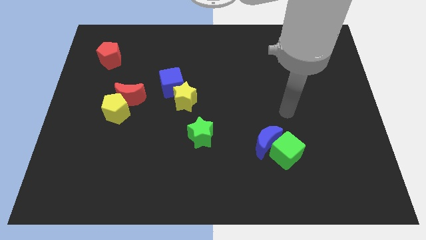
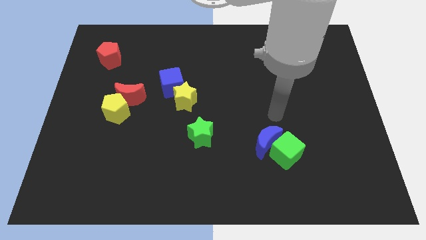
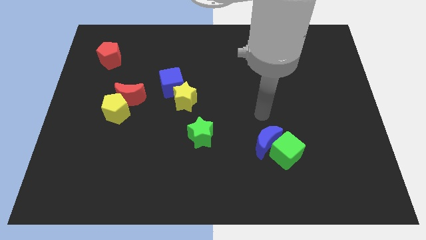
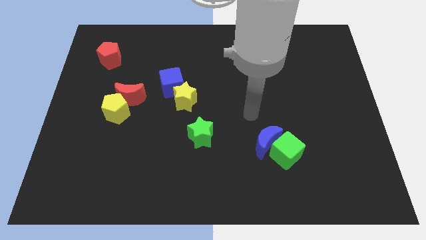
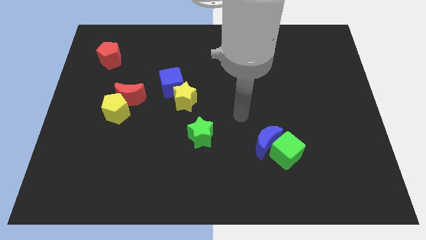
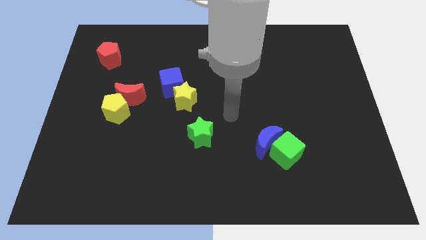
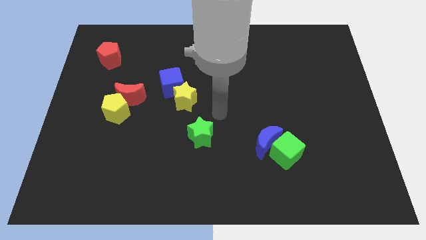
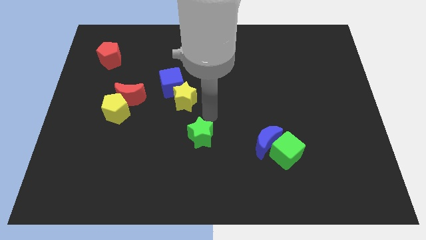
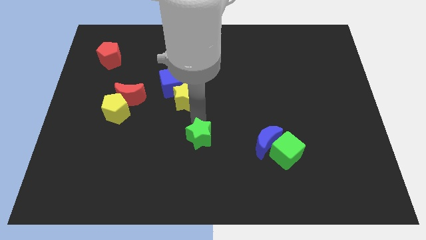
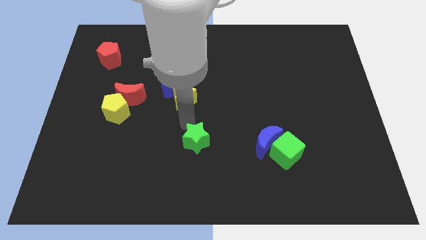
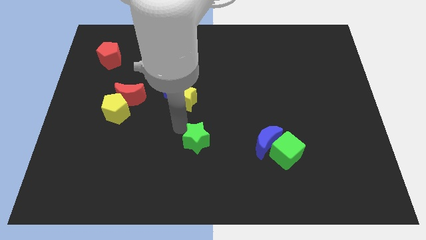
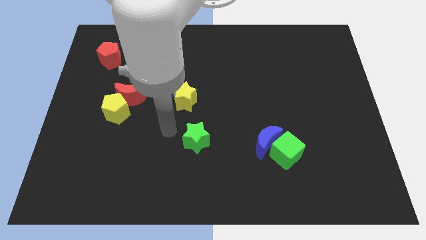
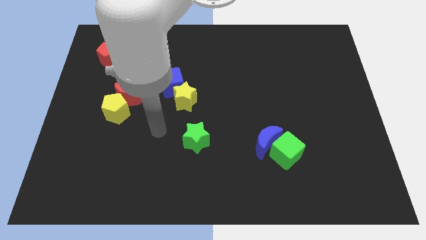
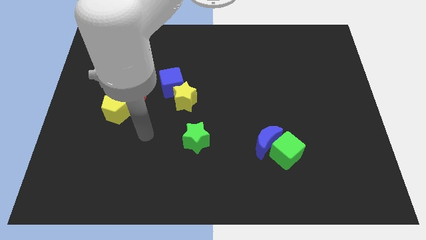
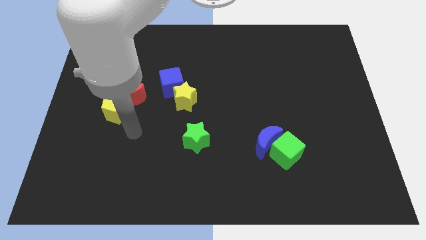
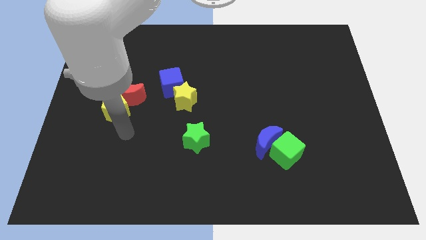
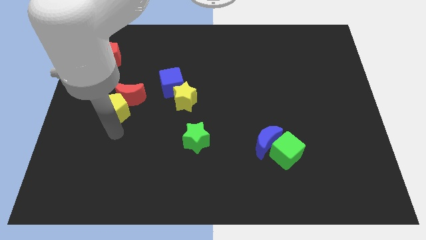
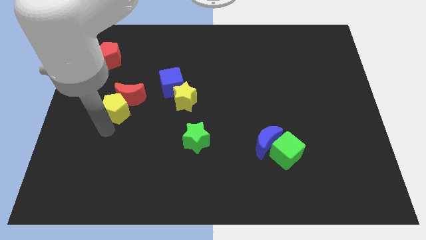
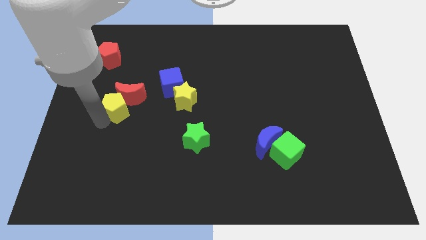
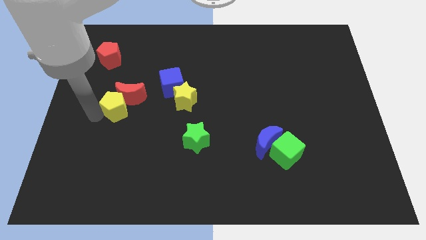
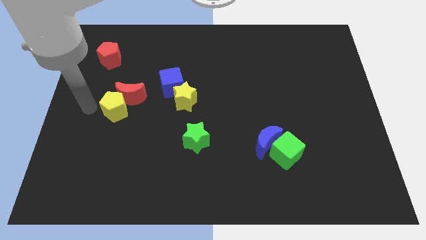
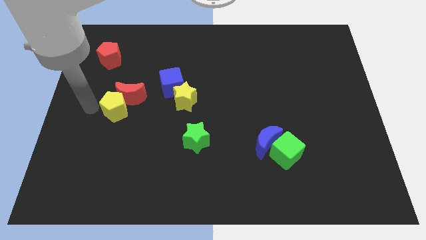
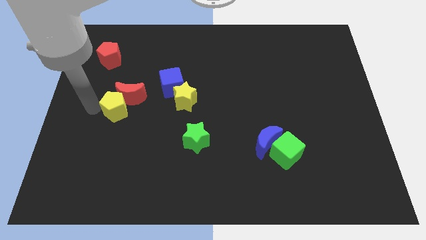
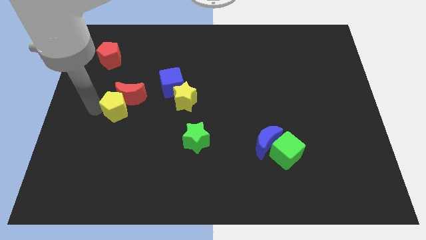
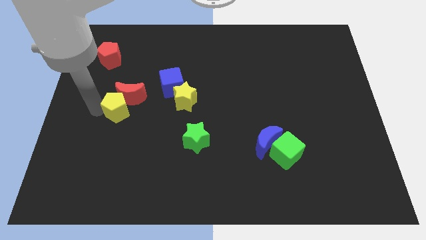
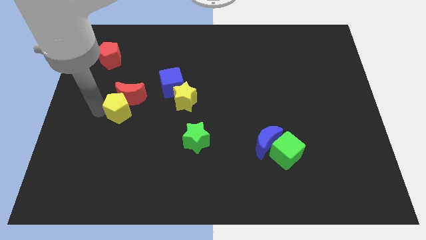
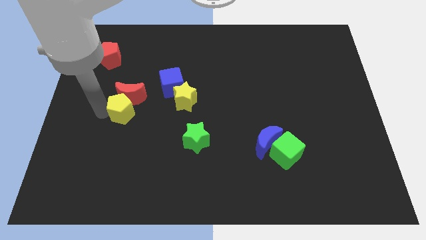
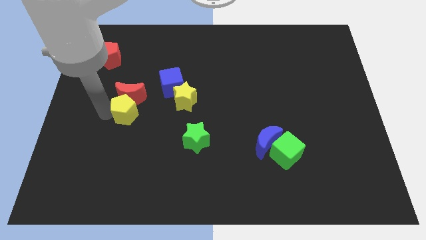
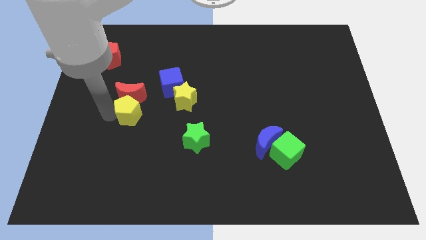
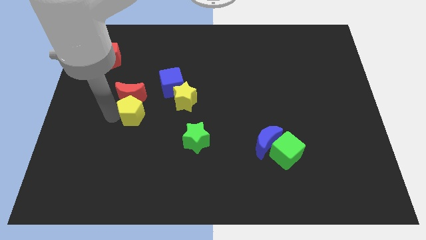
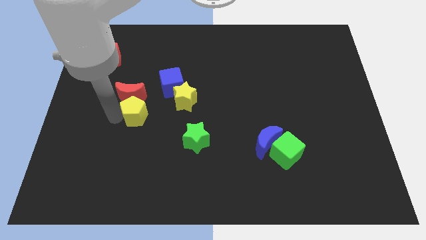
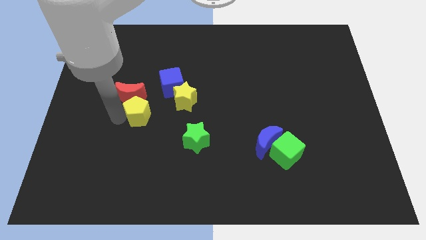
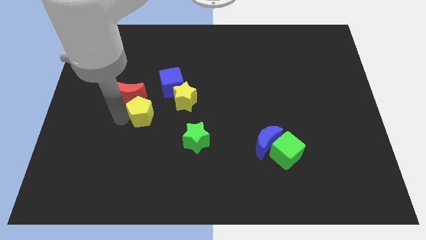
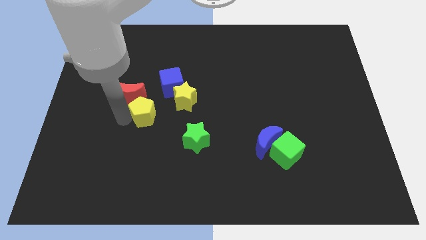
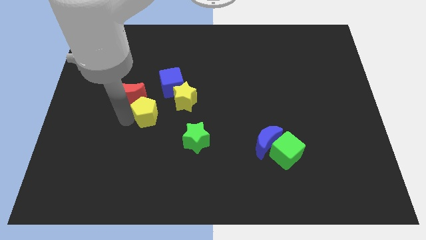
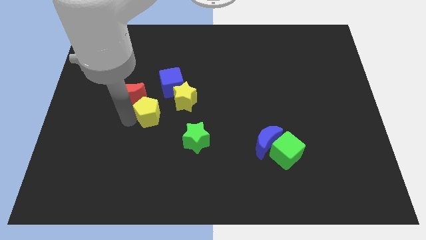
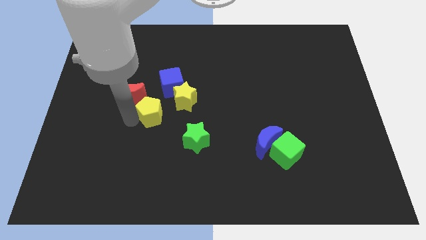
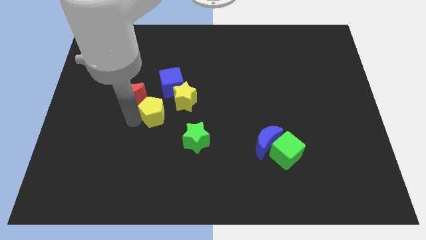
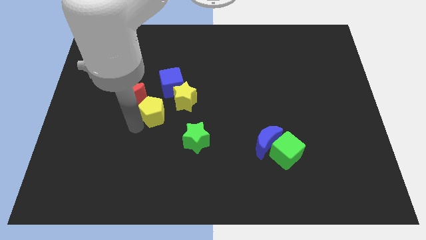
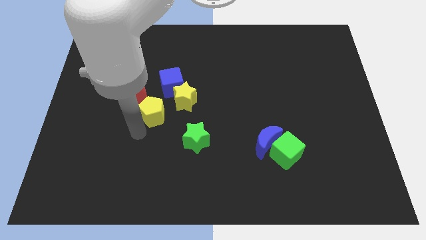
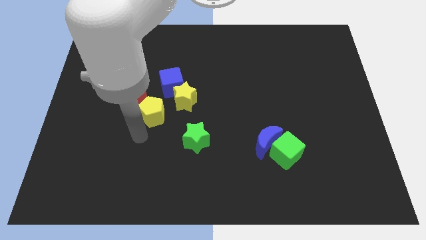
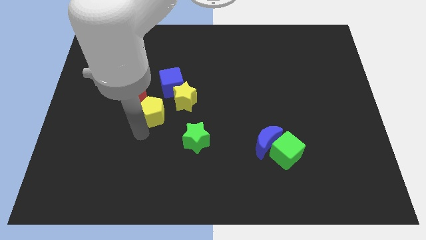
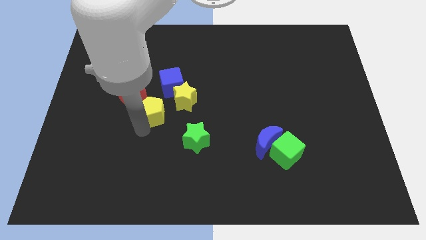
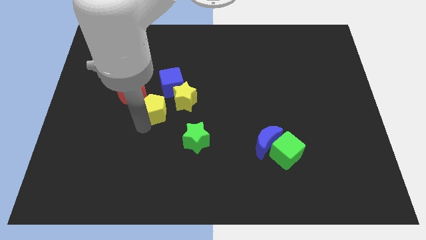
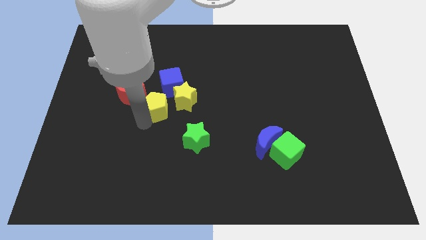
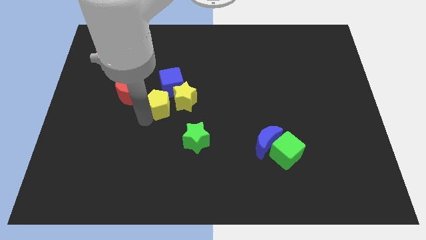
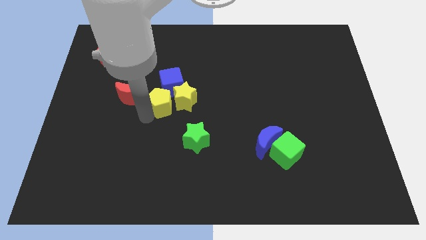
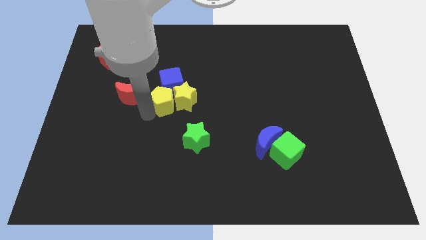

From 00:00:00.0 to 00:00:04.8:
slide the yellow pentagon towards the blue cube

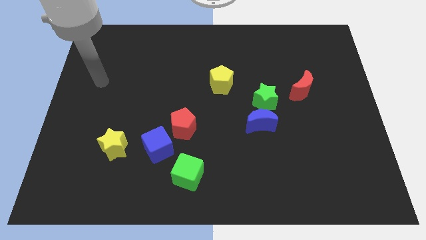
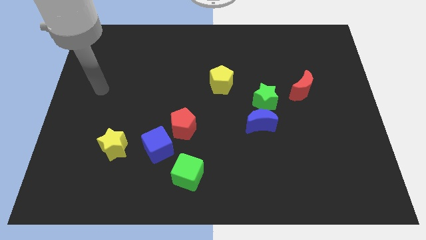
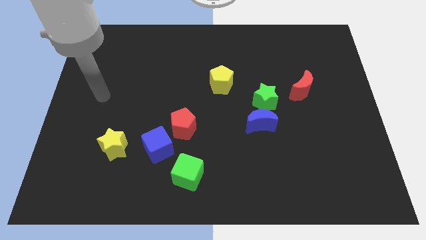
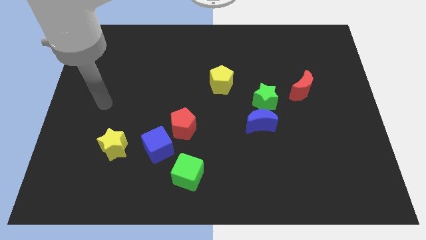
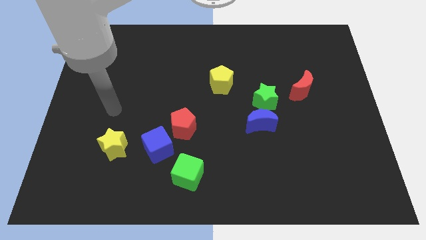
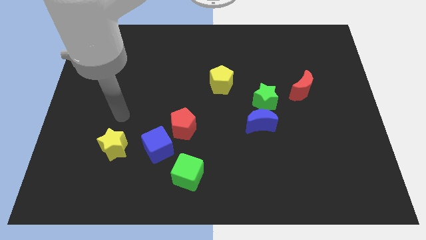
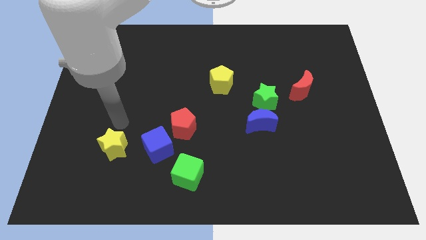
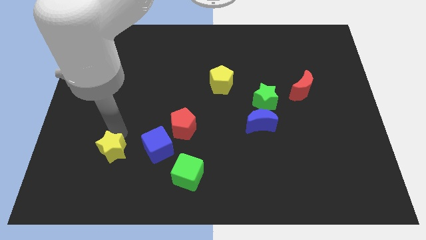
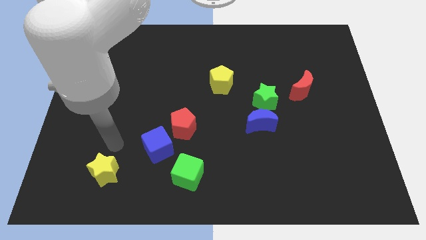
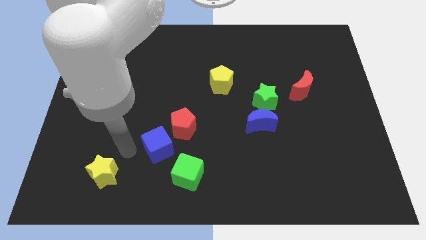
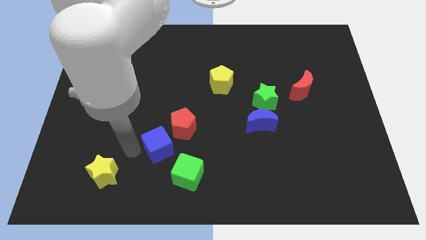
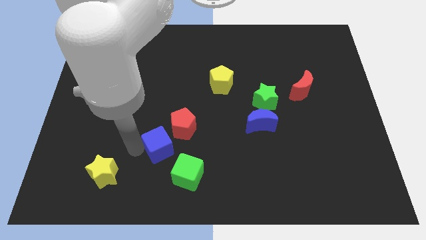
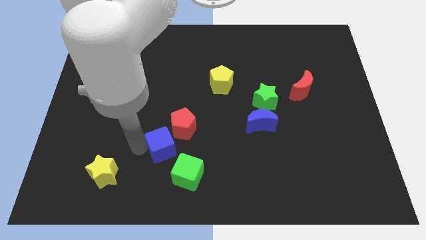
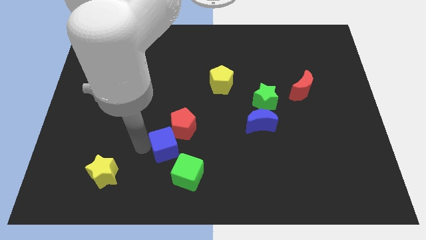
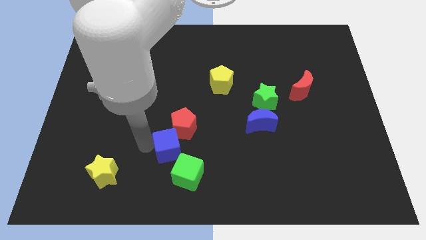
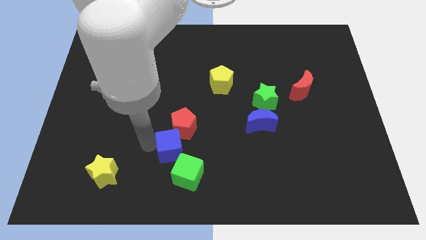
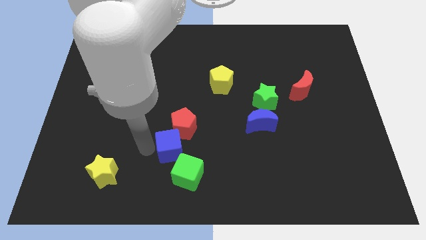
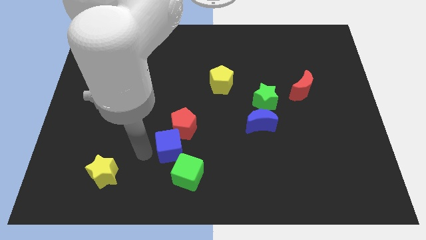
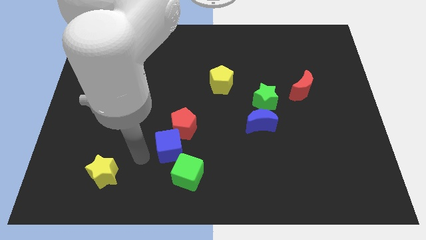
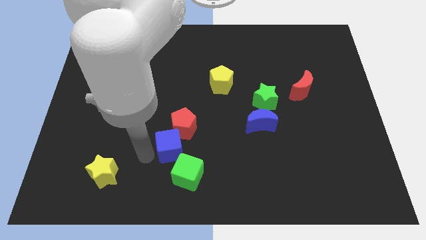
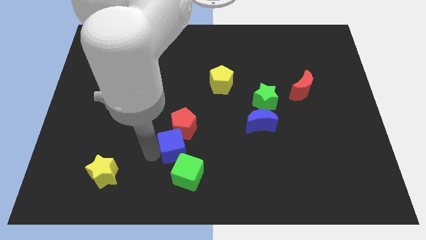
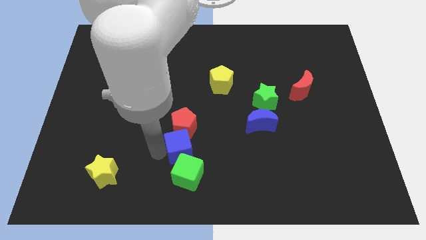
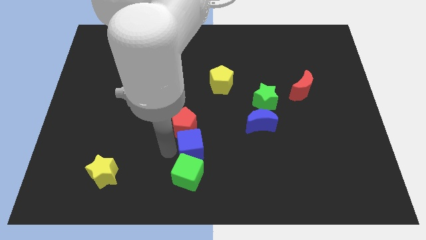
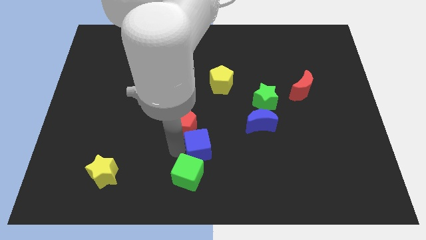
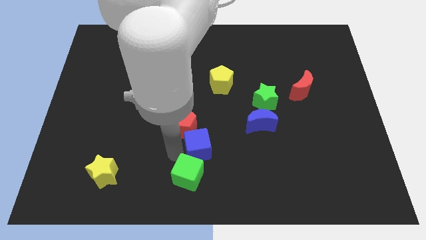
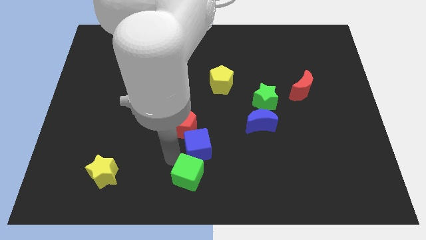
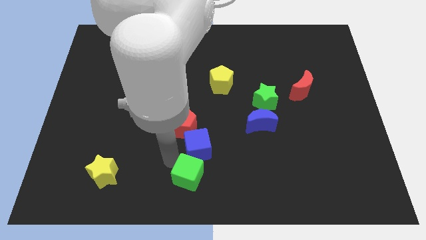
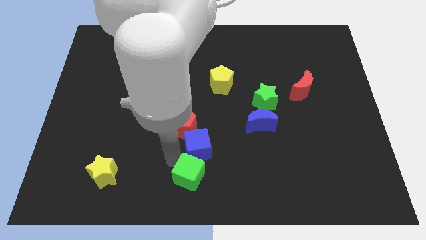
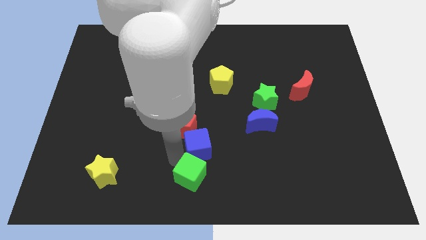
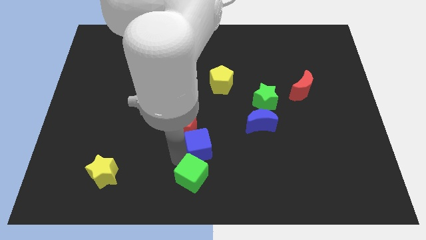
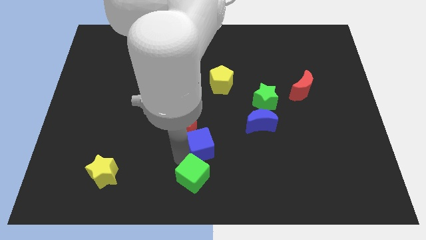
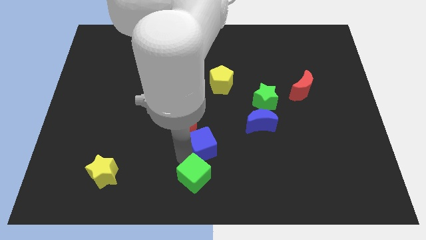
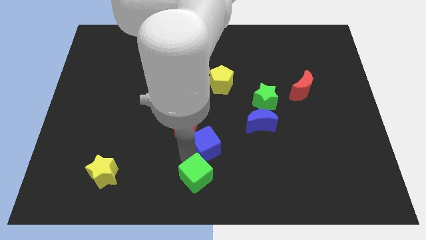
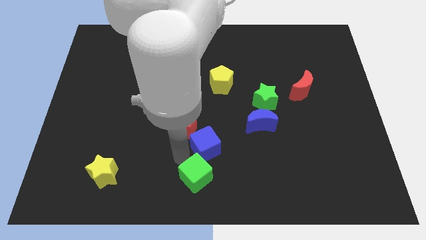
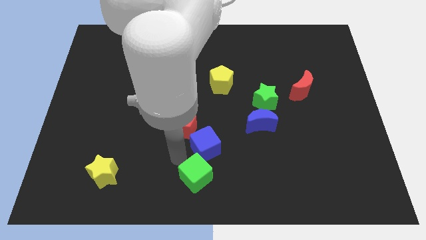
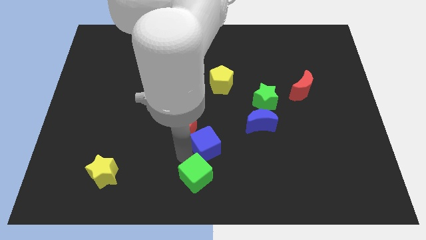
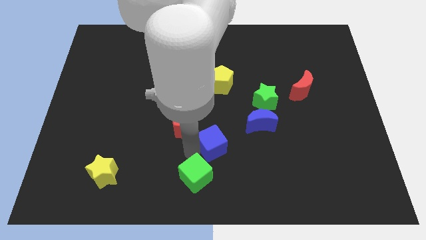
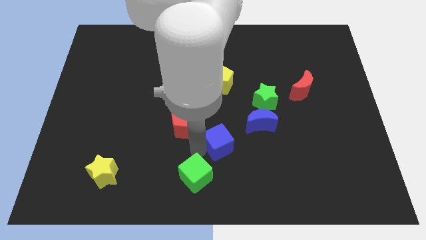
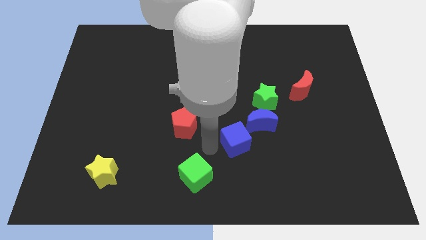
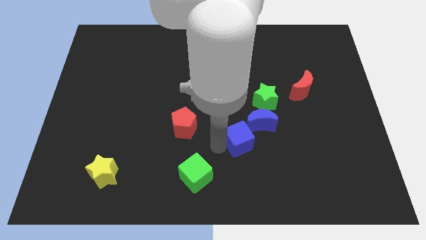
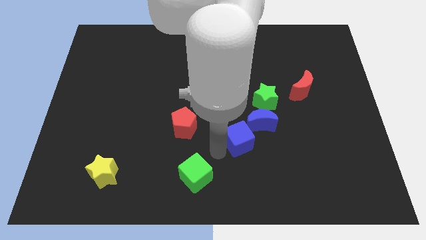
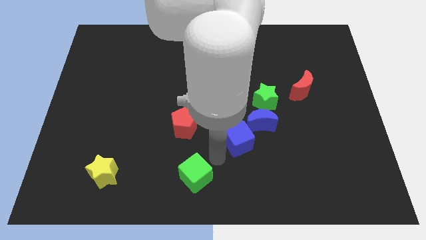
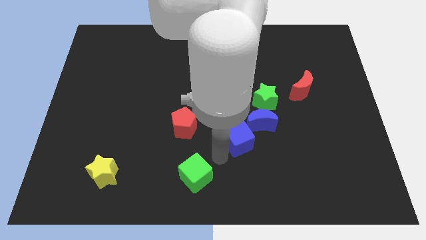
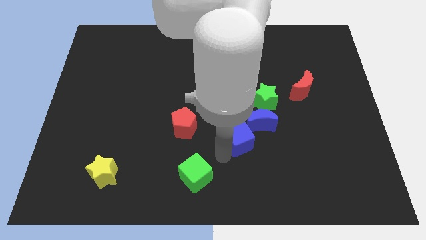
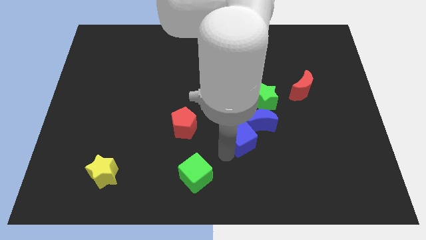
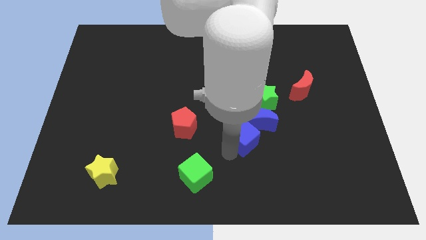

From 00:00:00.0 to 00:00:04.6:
move the blue cube close to the blue moon
